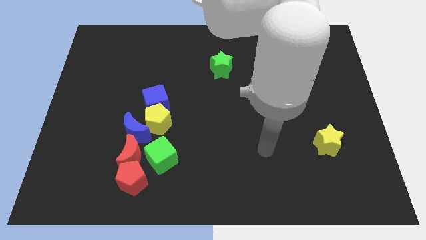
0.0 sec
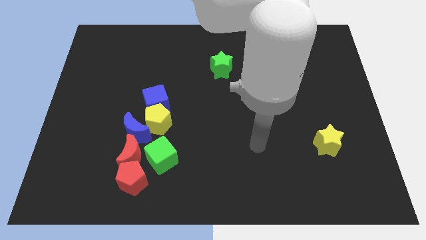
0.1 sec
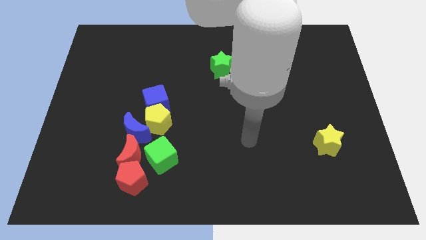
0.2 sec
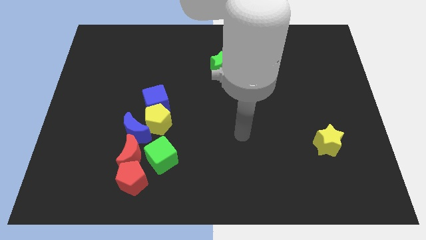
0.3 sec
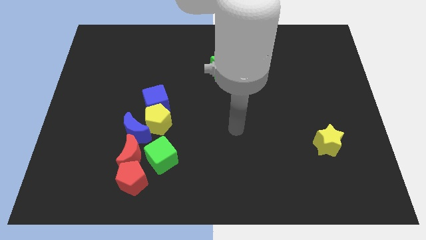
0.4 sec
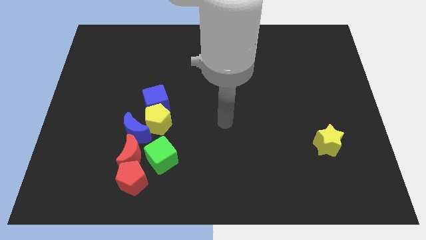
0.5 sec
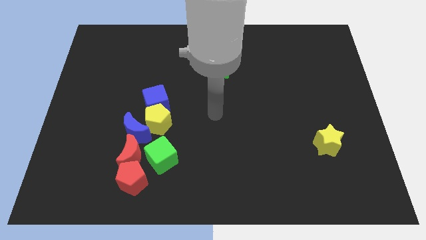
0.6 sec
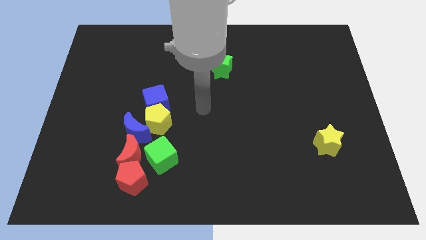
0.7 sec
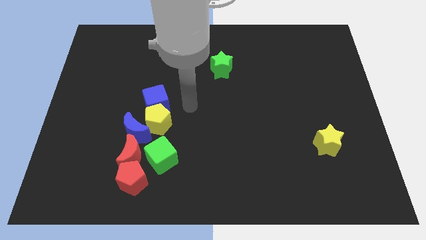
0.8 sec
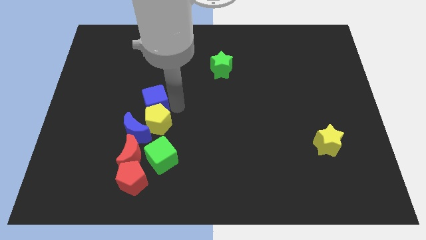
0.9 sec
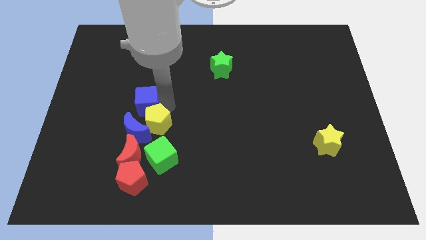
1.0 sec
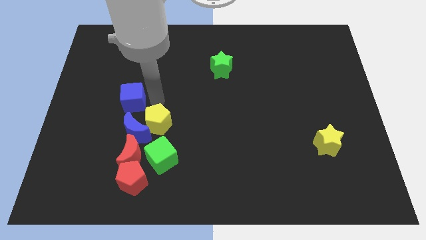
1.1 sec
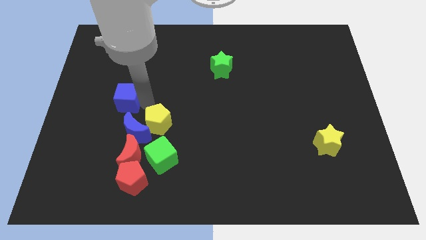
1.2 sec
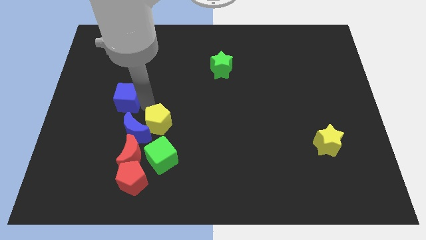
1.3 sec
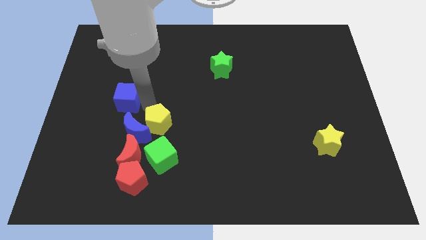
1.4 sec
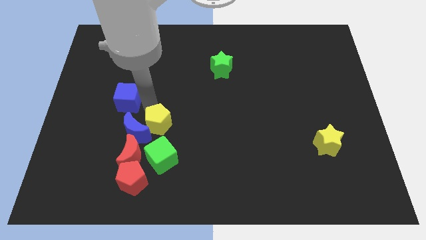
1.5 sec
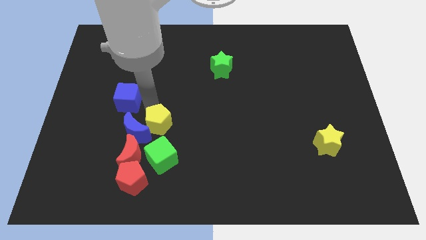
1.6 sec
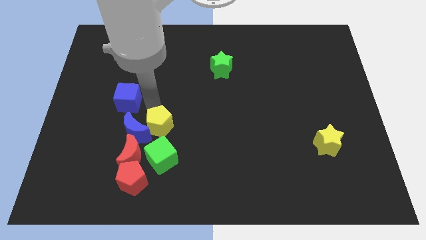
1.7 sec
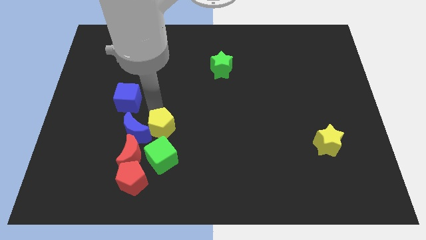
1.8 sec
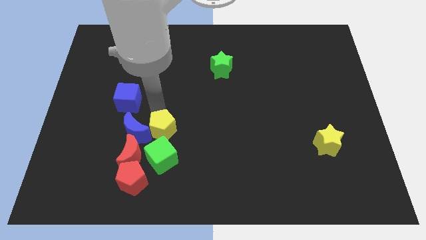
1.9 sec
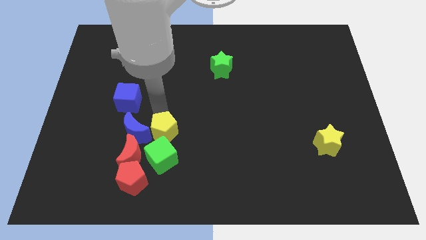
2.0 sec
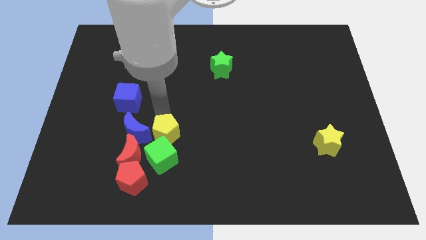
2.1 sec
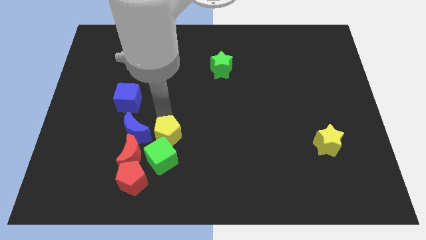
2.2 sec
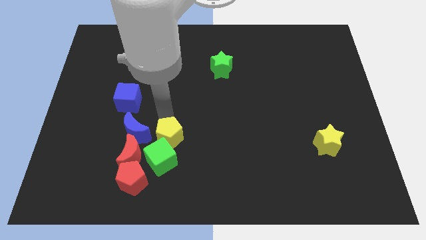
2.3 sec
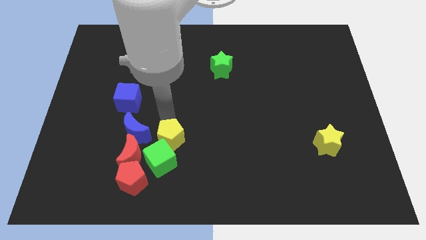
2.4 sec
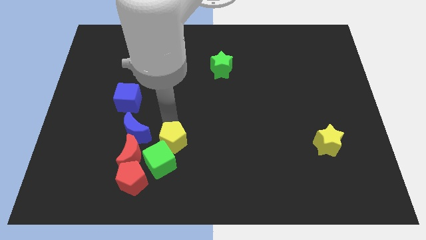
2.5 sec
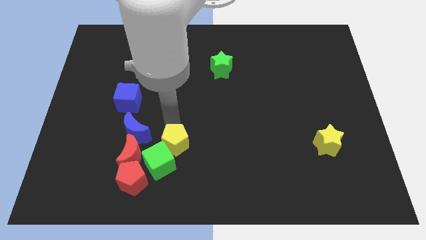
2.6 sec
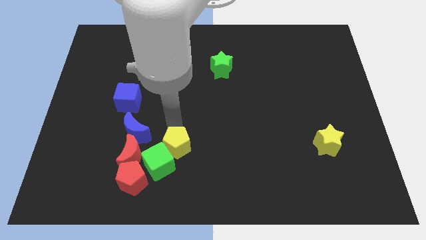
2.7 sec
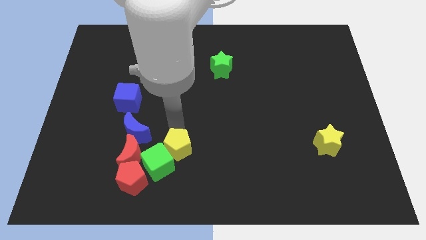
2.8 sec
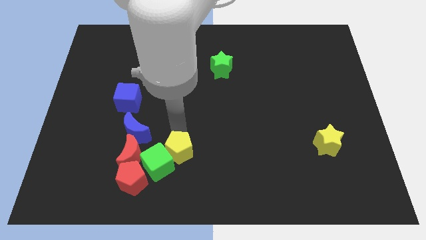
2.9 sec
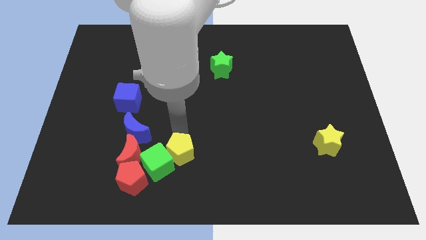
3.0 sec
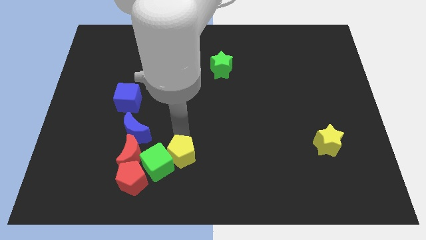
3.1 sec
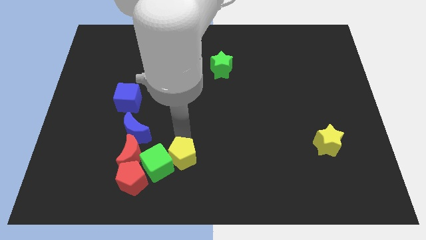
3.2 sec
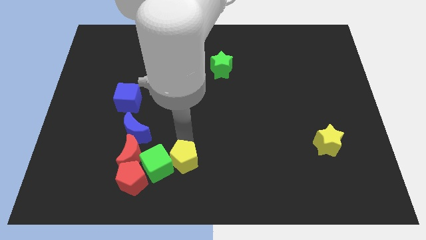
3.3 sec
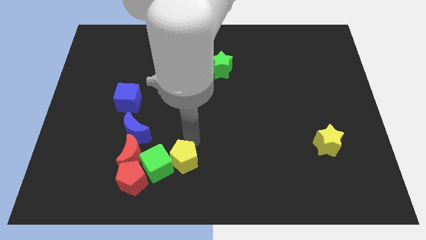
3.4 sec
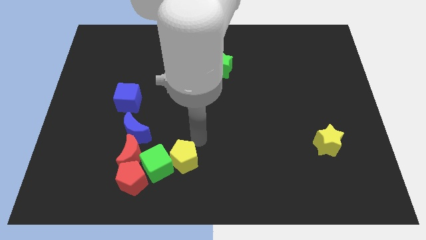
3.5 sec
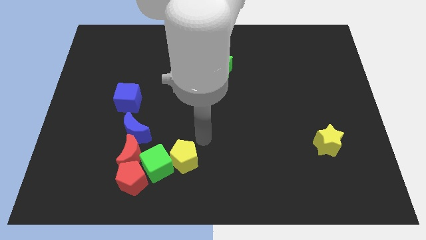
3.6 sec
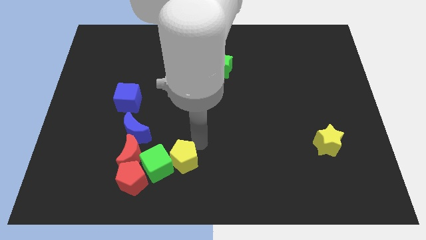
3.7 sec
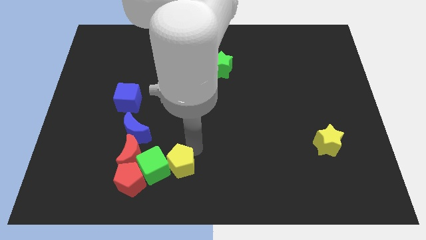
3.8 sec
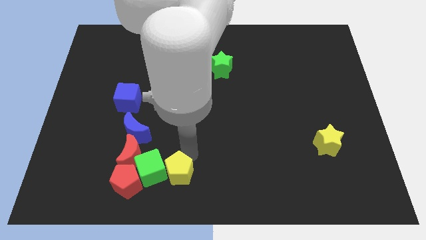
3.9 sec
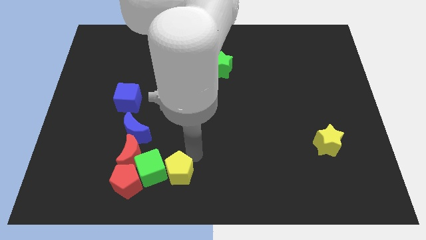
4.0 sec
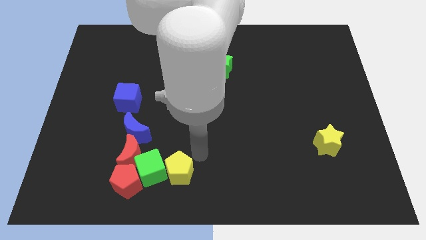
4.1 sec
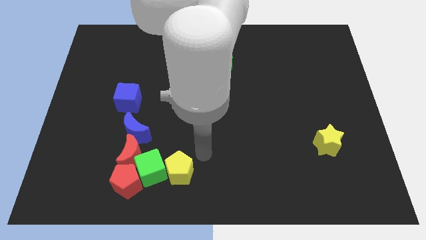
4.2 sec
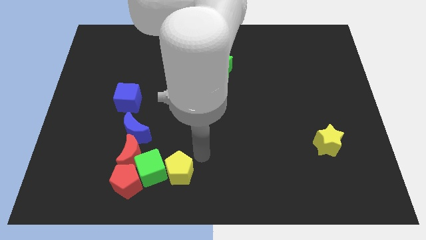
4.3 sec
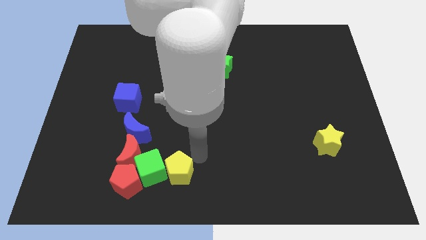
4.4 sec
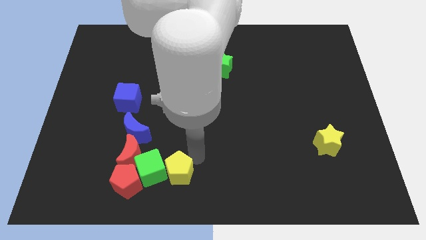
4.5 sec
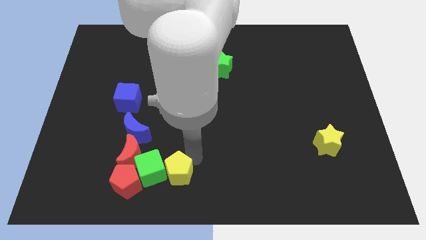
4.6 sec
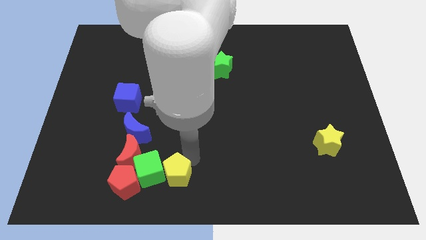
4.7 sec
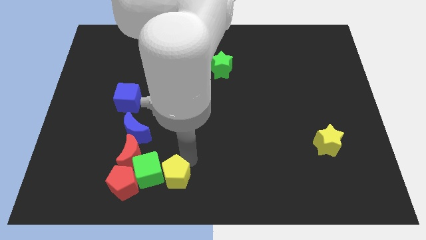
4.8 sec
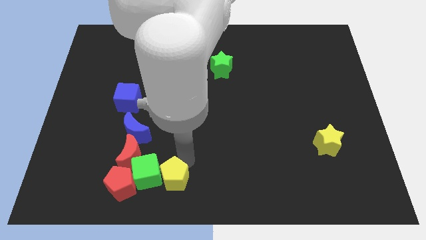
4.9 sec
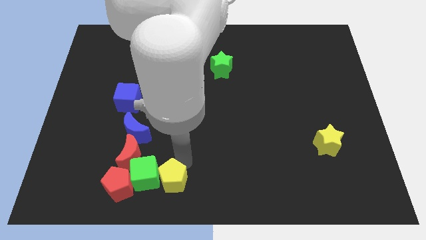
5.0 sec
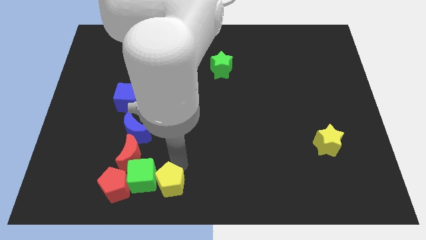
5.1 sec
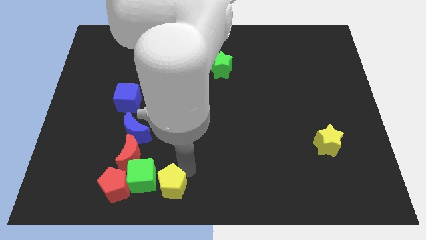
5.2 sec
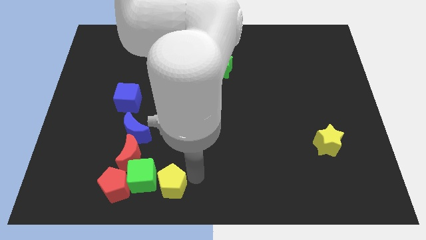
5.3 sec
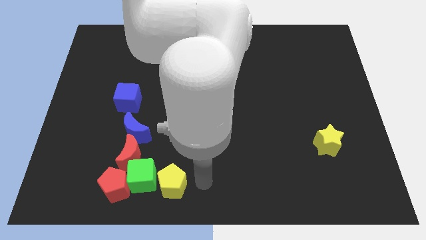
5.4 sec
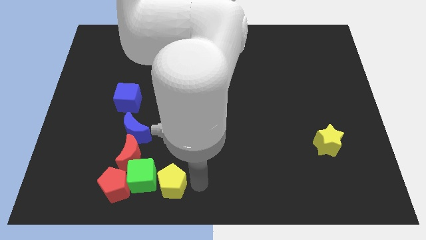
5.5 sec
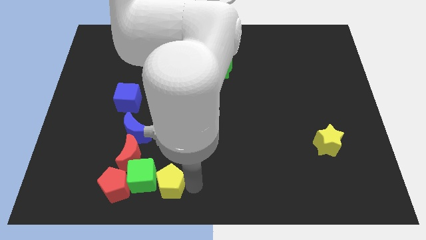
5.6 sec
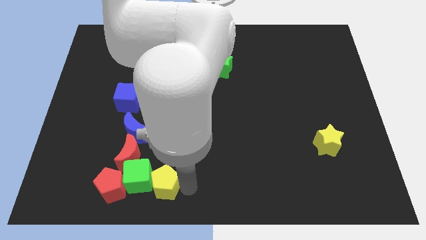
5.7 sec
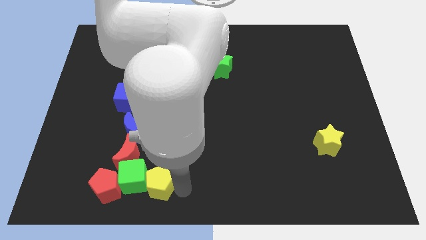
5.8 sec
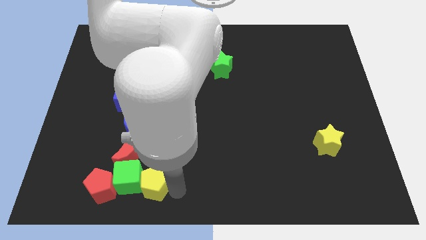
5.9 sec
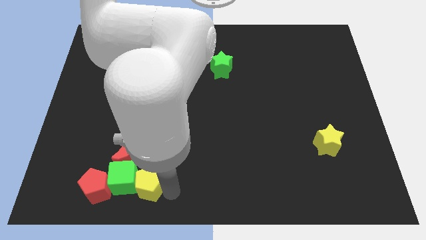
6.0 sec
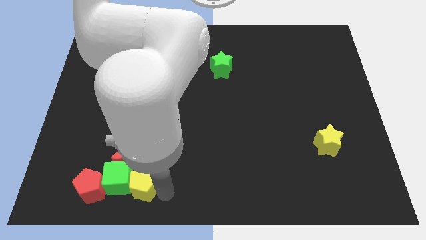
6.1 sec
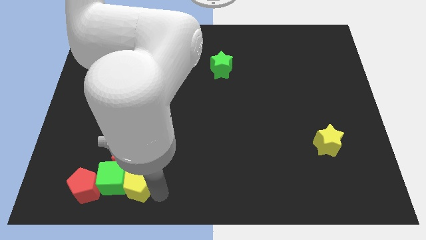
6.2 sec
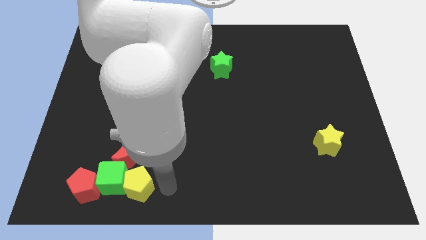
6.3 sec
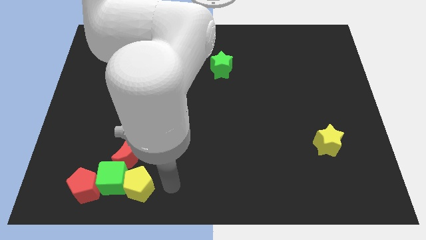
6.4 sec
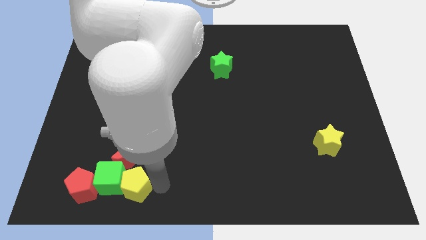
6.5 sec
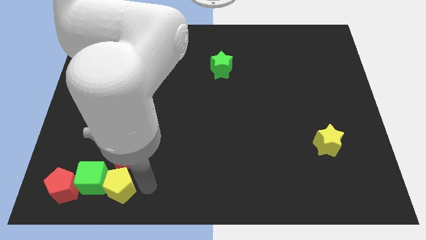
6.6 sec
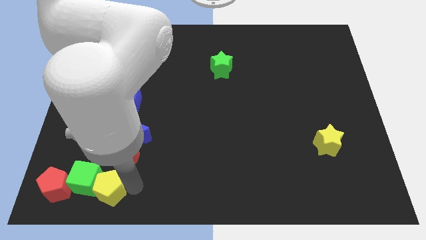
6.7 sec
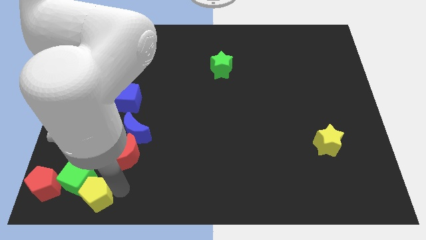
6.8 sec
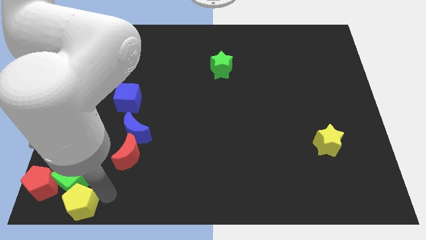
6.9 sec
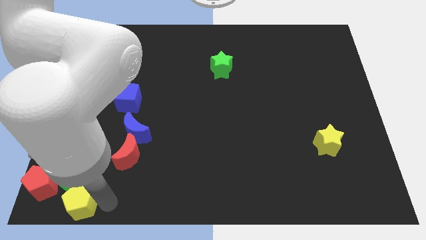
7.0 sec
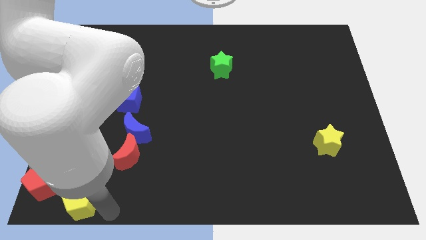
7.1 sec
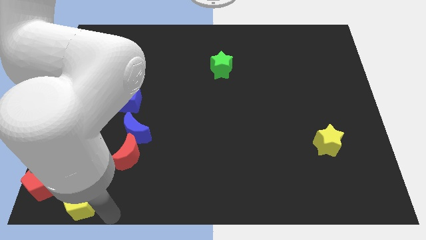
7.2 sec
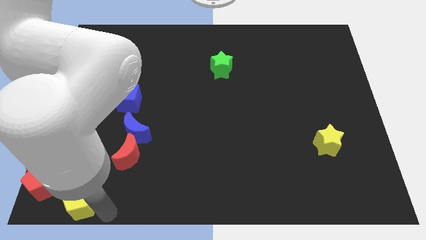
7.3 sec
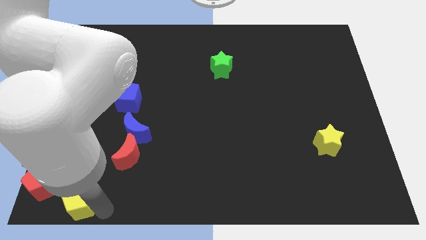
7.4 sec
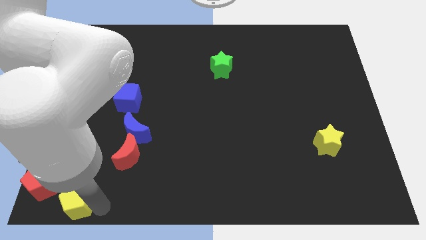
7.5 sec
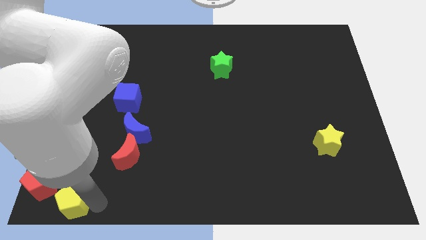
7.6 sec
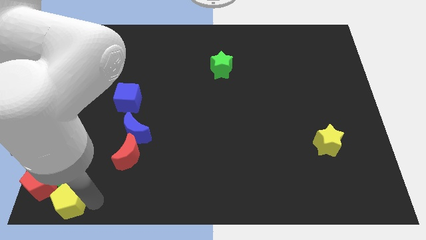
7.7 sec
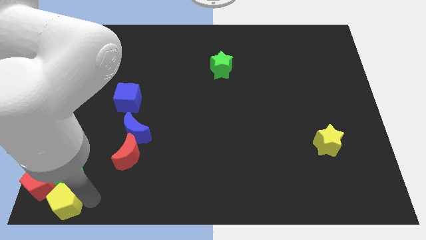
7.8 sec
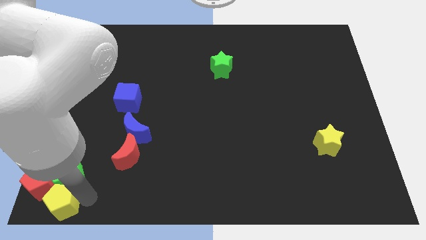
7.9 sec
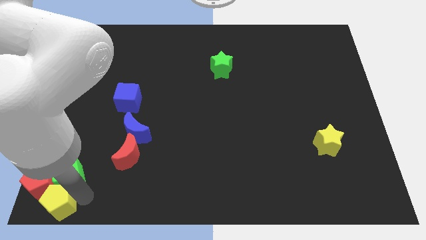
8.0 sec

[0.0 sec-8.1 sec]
slide the yellow pentagon to the red pentagon
